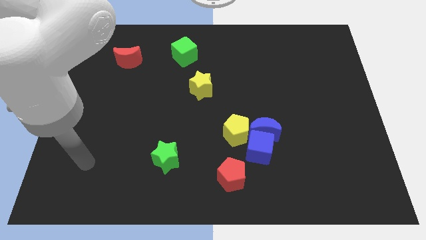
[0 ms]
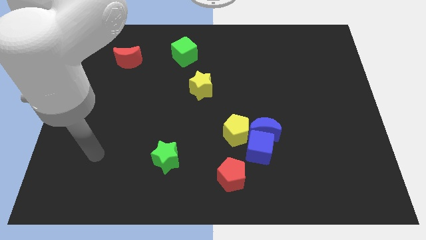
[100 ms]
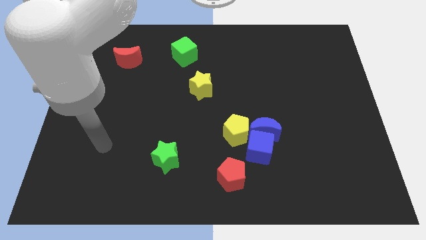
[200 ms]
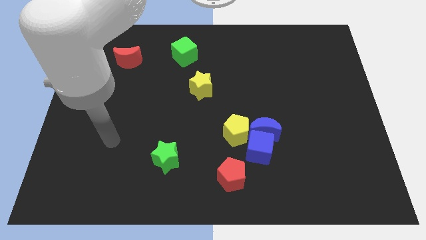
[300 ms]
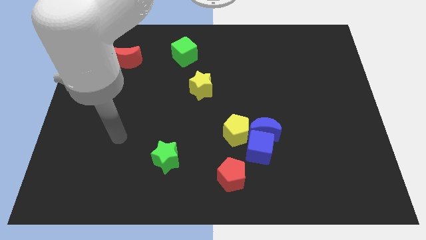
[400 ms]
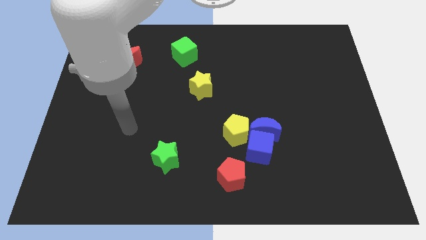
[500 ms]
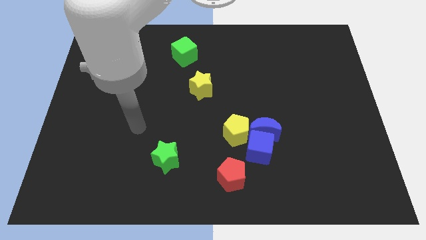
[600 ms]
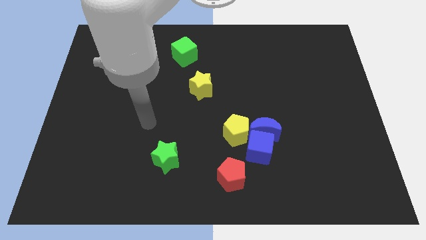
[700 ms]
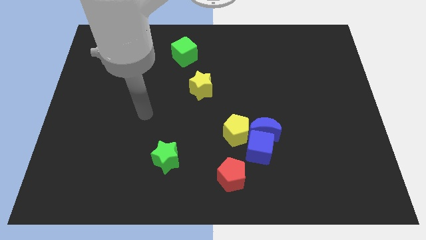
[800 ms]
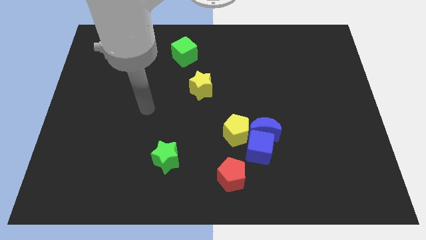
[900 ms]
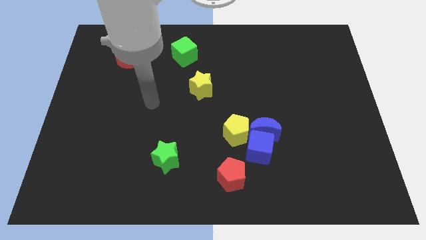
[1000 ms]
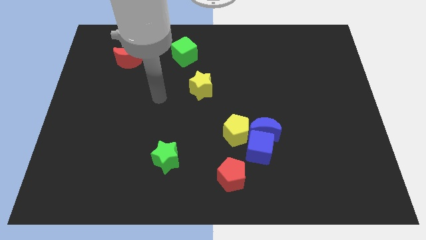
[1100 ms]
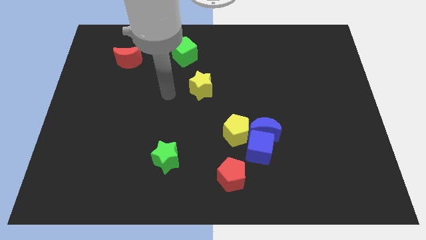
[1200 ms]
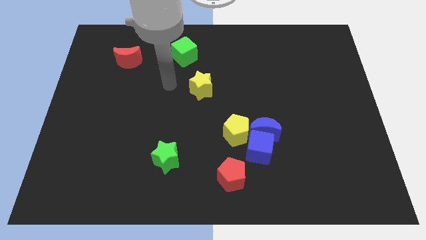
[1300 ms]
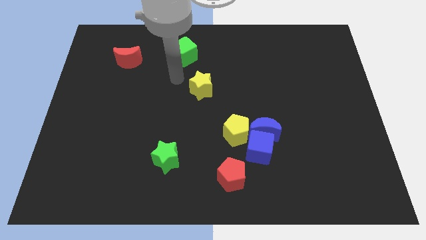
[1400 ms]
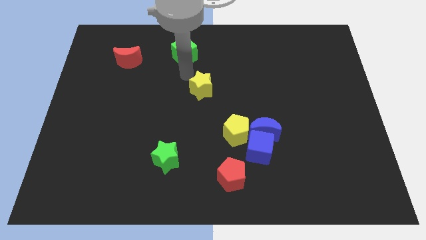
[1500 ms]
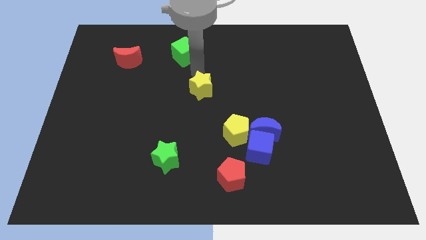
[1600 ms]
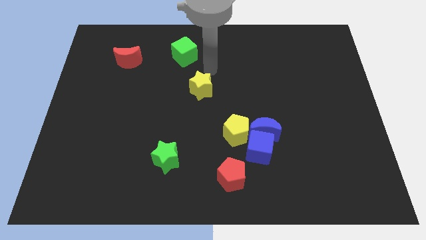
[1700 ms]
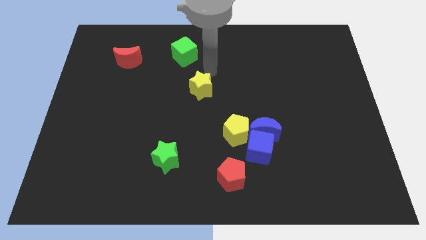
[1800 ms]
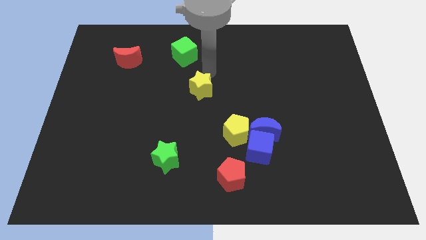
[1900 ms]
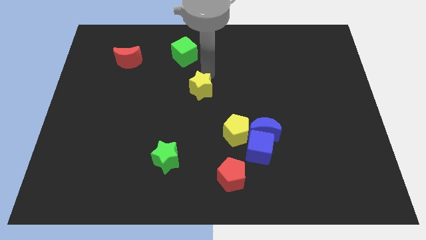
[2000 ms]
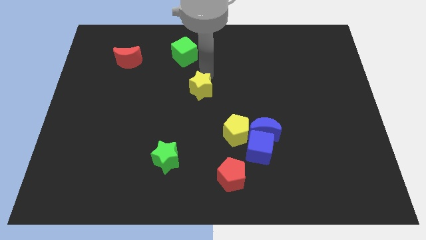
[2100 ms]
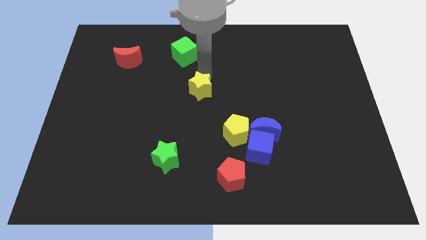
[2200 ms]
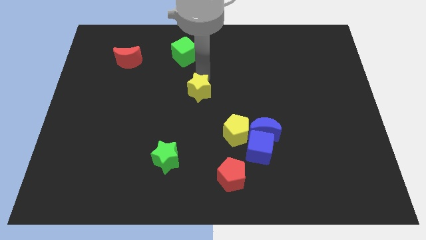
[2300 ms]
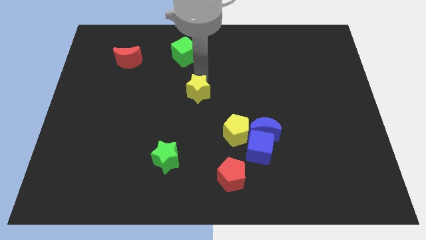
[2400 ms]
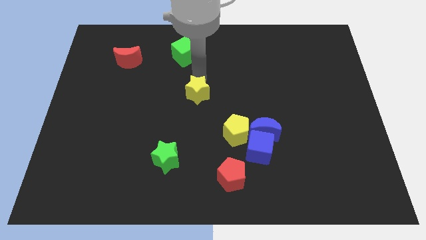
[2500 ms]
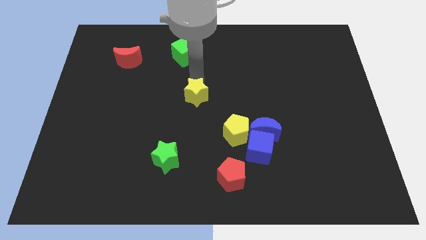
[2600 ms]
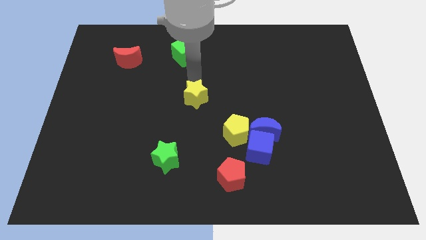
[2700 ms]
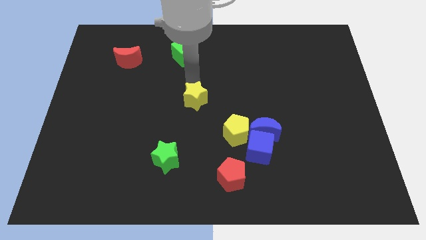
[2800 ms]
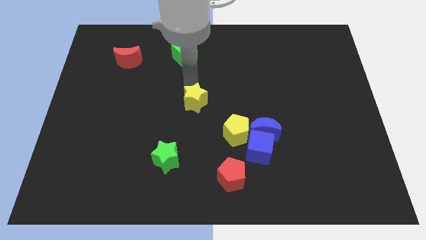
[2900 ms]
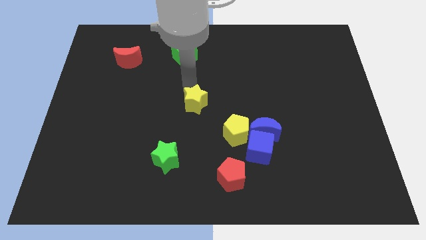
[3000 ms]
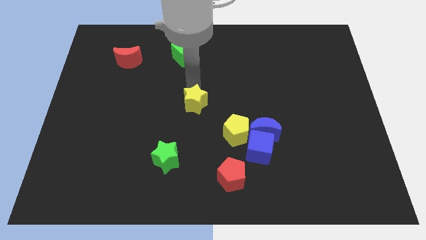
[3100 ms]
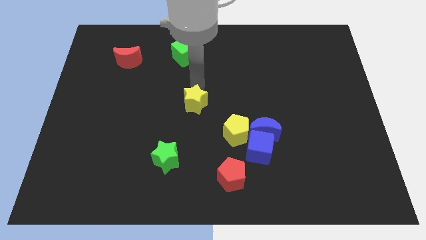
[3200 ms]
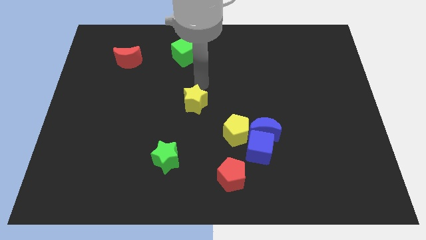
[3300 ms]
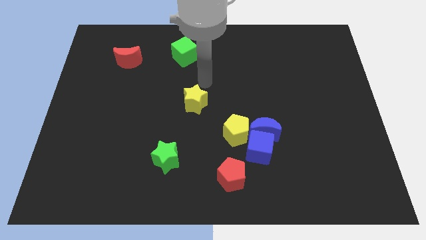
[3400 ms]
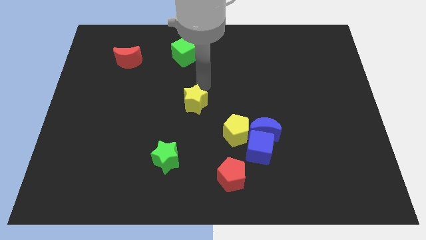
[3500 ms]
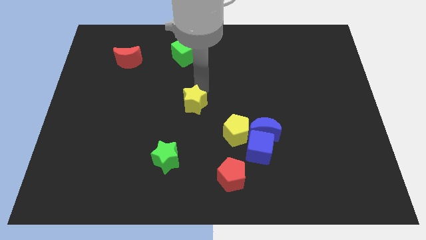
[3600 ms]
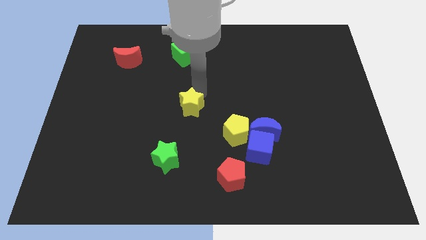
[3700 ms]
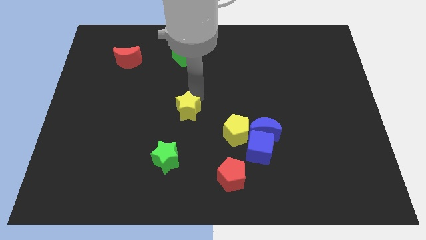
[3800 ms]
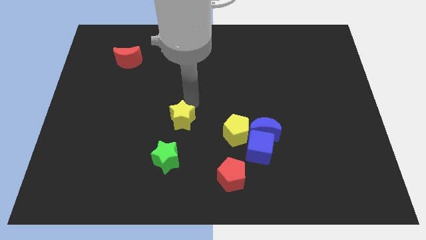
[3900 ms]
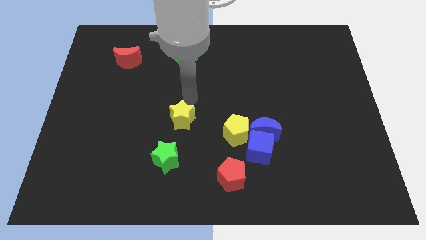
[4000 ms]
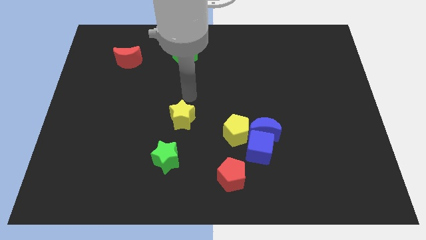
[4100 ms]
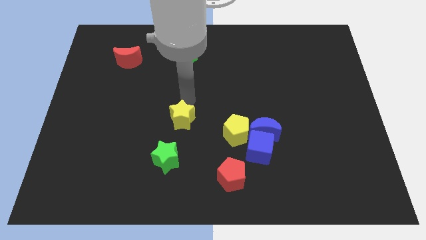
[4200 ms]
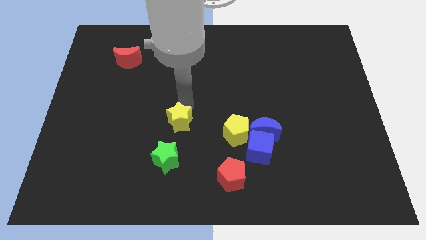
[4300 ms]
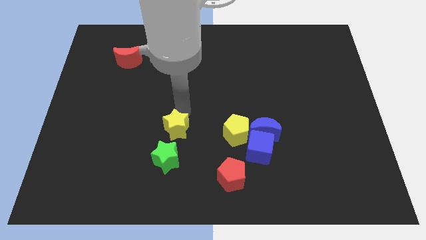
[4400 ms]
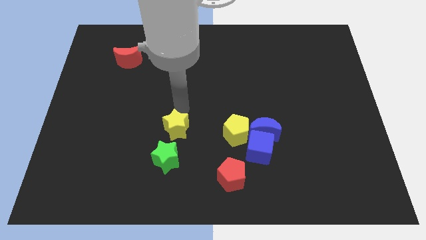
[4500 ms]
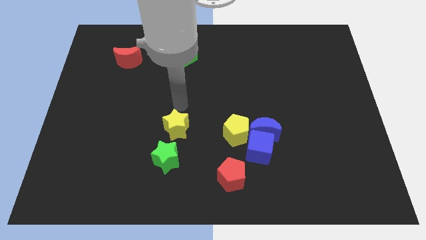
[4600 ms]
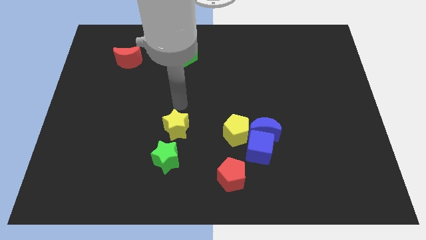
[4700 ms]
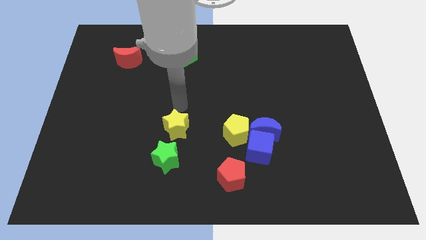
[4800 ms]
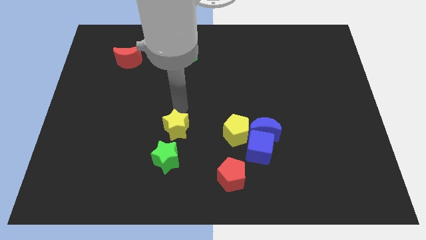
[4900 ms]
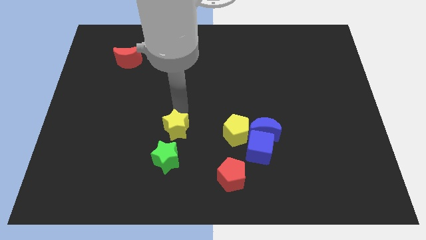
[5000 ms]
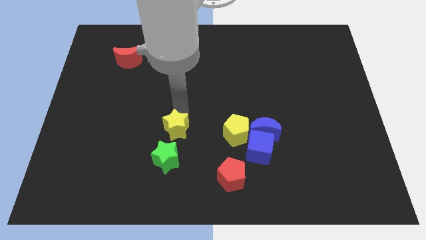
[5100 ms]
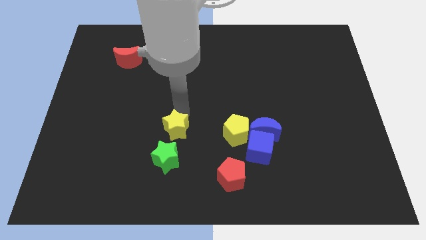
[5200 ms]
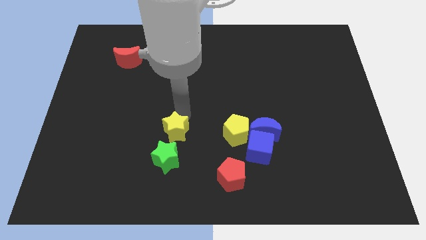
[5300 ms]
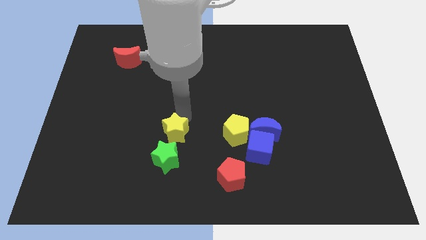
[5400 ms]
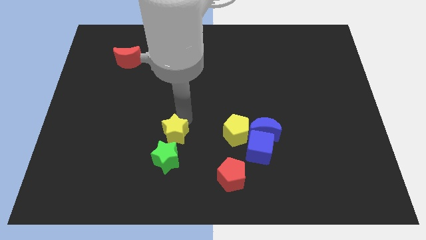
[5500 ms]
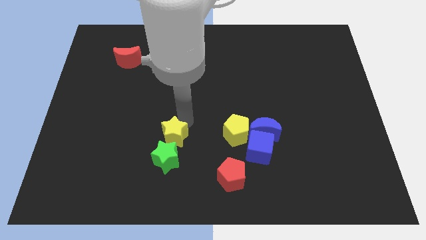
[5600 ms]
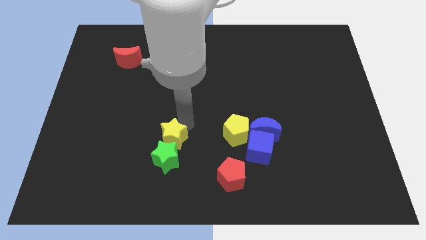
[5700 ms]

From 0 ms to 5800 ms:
push the yellow star to the green star

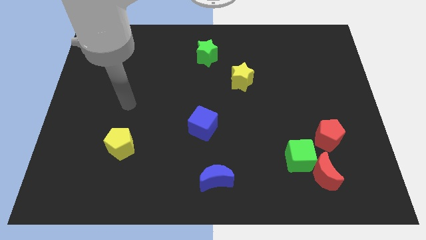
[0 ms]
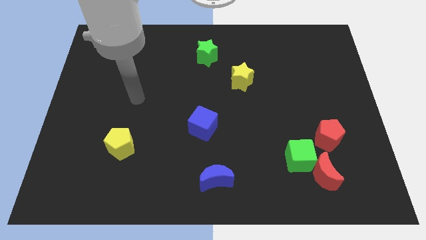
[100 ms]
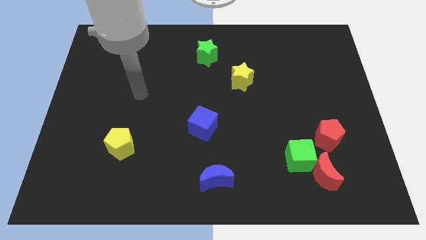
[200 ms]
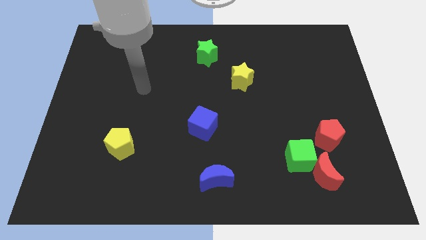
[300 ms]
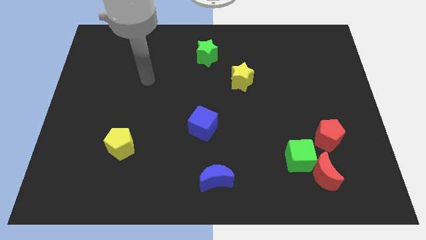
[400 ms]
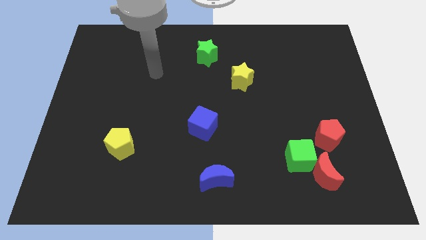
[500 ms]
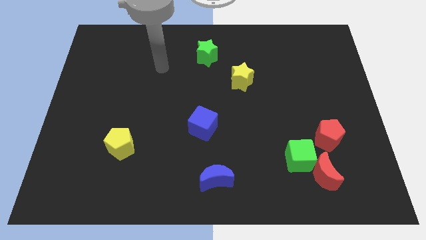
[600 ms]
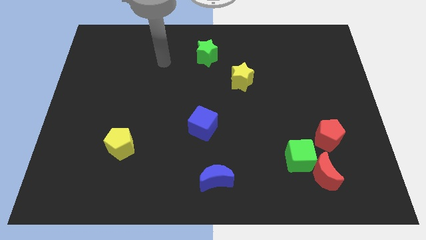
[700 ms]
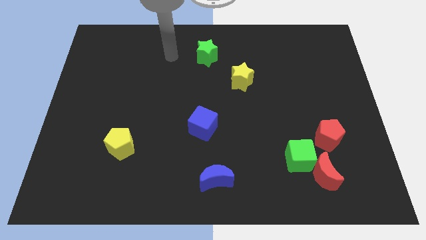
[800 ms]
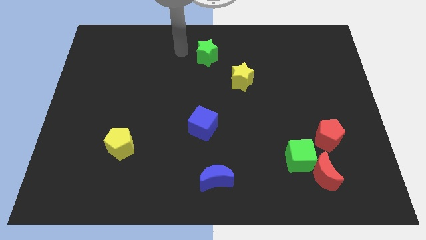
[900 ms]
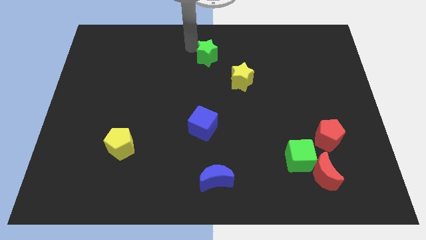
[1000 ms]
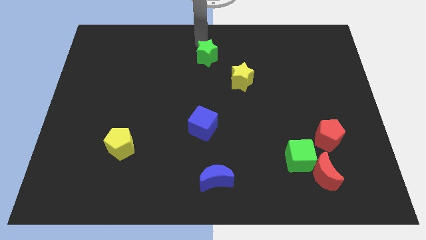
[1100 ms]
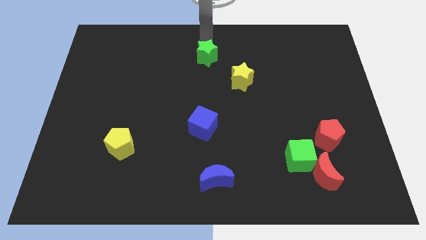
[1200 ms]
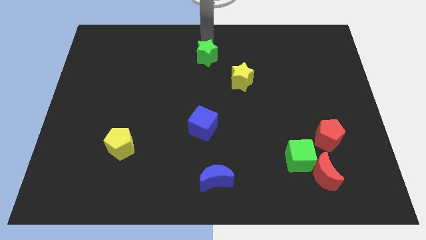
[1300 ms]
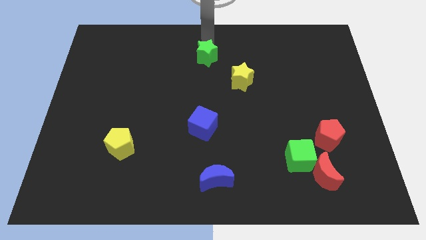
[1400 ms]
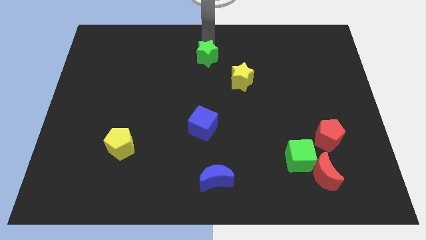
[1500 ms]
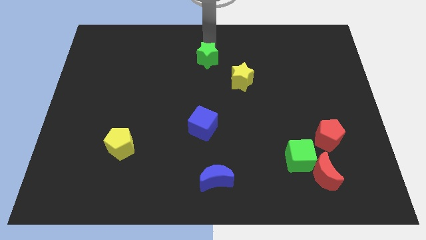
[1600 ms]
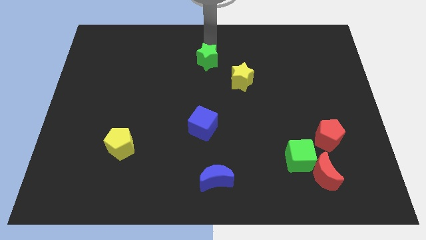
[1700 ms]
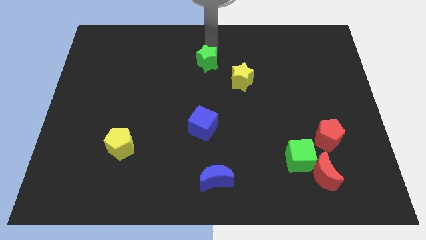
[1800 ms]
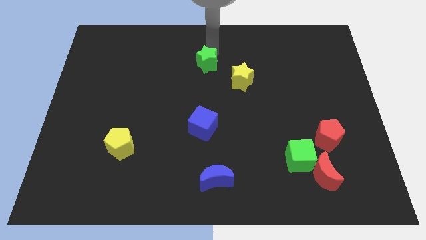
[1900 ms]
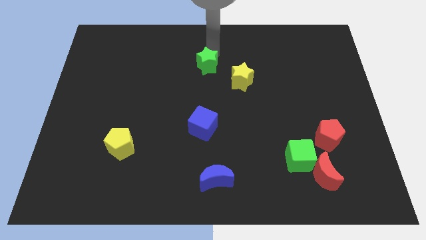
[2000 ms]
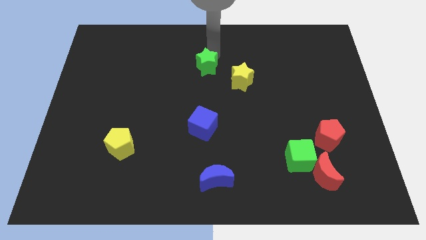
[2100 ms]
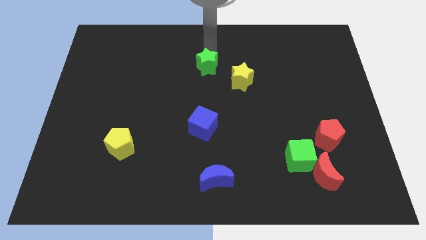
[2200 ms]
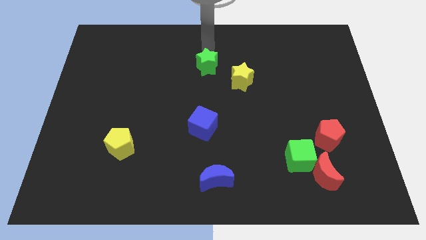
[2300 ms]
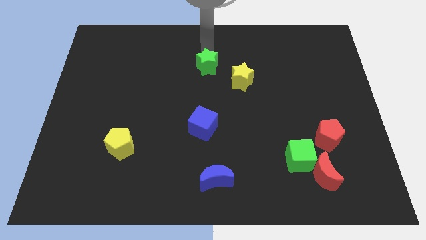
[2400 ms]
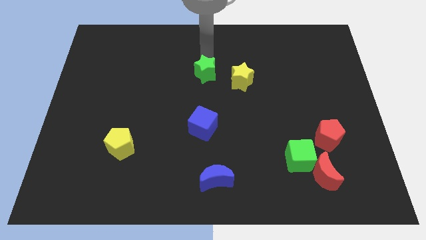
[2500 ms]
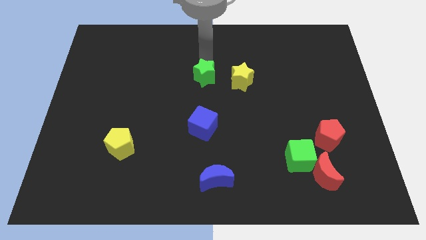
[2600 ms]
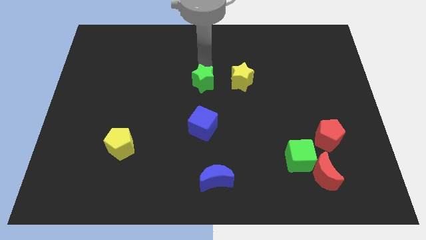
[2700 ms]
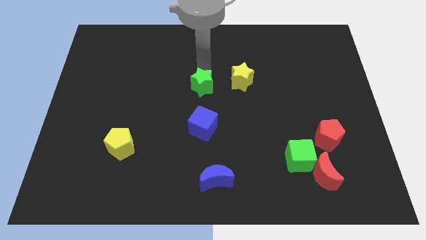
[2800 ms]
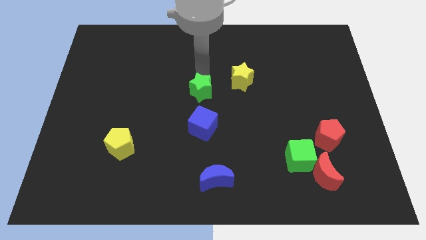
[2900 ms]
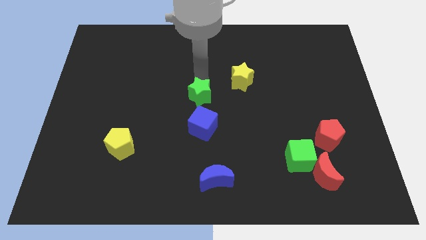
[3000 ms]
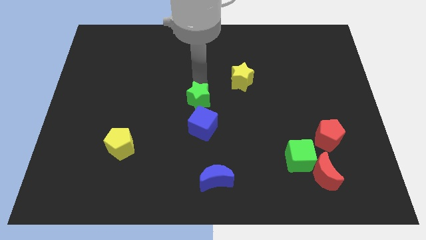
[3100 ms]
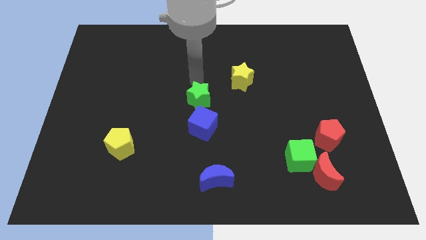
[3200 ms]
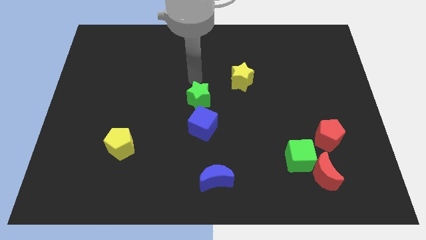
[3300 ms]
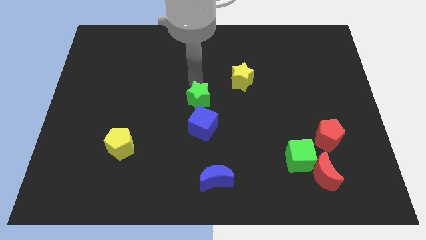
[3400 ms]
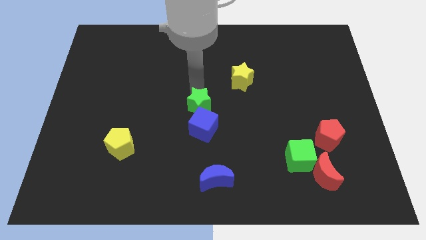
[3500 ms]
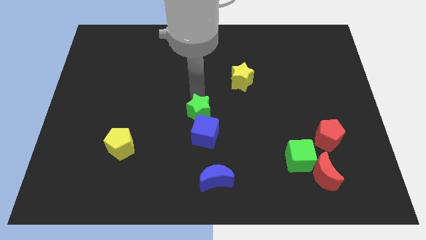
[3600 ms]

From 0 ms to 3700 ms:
slide the green star to the blue cube
